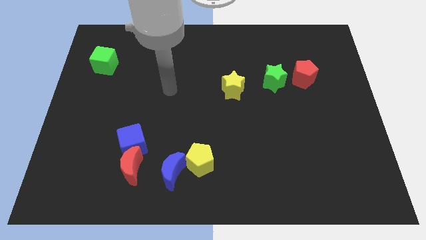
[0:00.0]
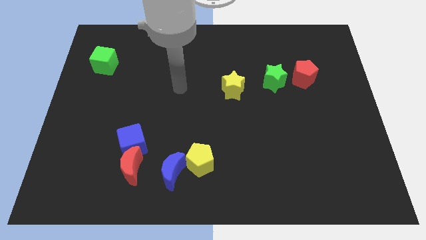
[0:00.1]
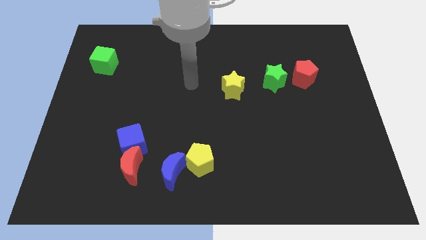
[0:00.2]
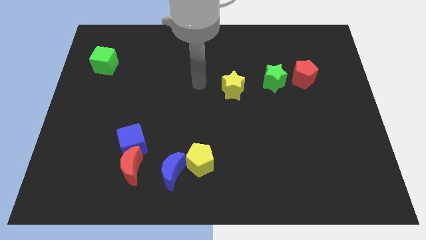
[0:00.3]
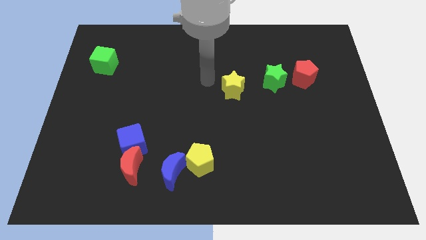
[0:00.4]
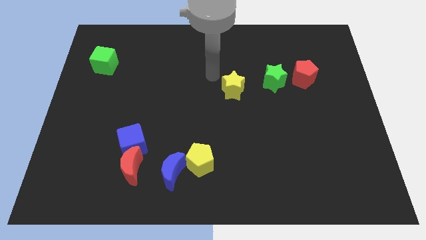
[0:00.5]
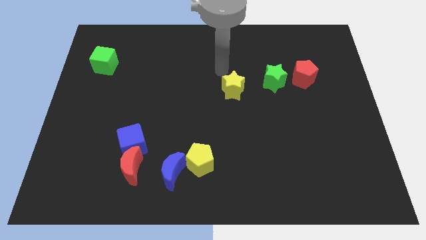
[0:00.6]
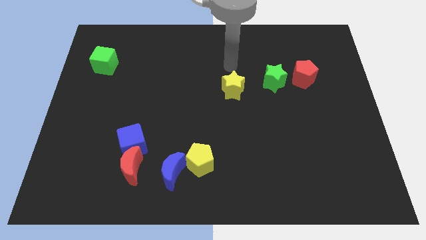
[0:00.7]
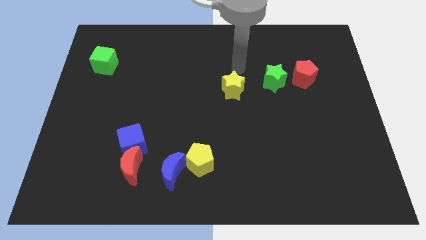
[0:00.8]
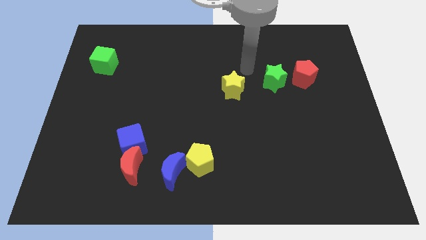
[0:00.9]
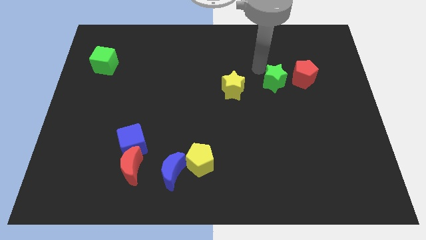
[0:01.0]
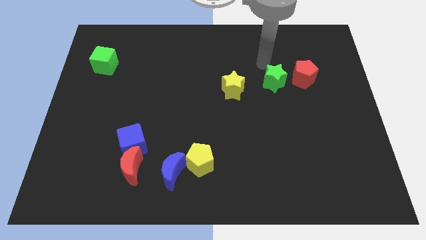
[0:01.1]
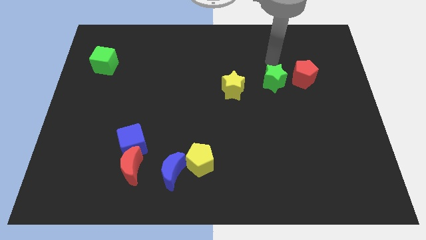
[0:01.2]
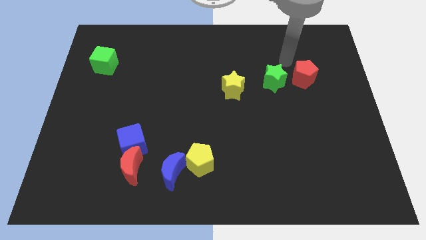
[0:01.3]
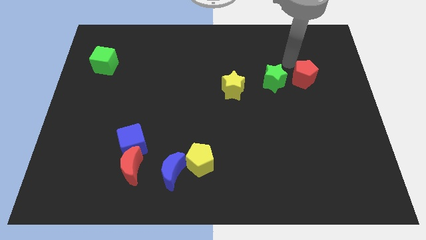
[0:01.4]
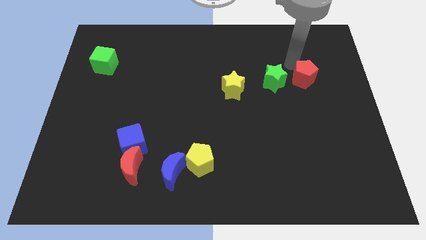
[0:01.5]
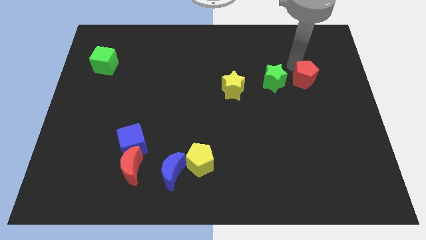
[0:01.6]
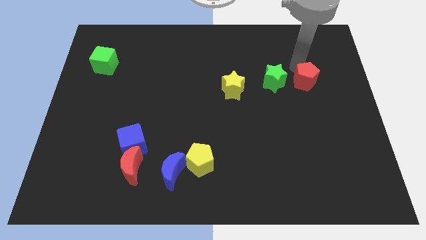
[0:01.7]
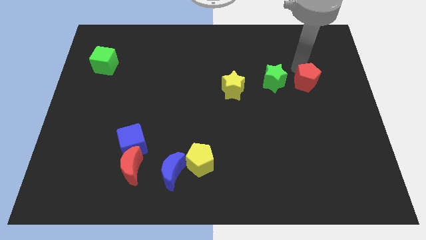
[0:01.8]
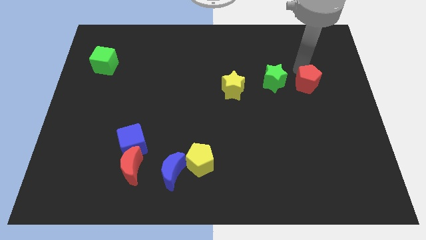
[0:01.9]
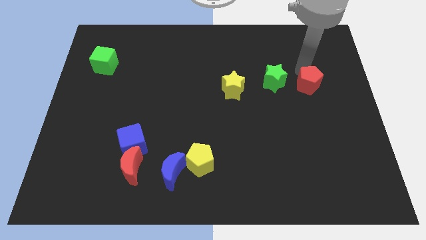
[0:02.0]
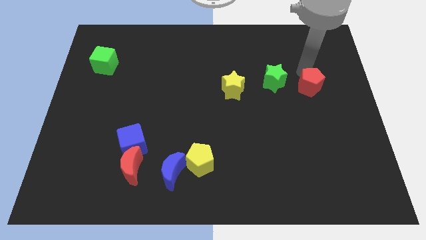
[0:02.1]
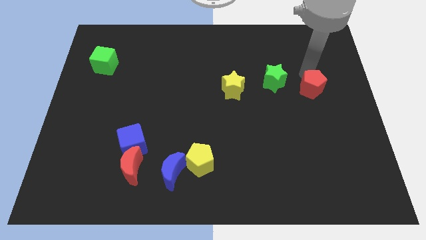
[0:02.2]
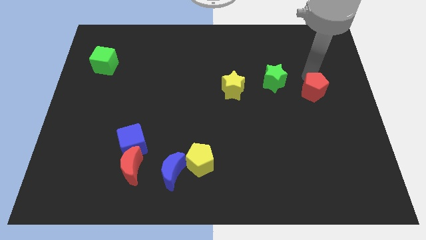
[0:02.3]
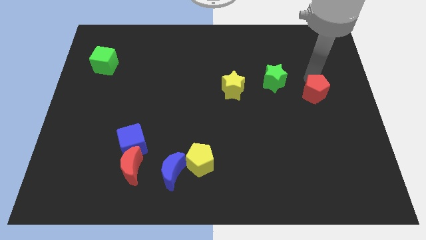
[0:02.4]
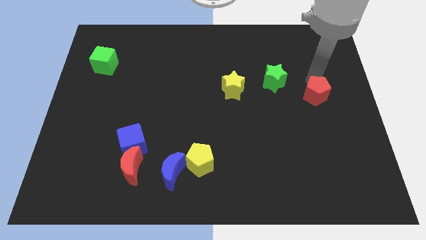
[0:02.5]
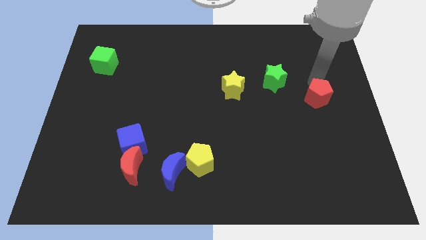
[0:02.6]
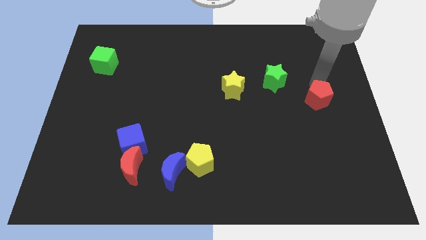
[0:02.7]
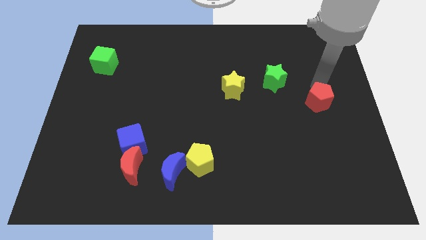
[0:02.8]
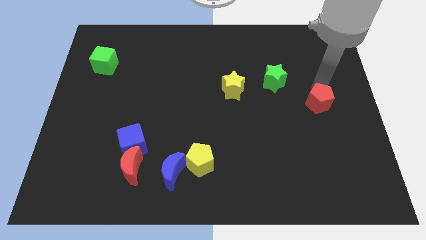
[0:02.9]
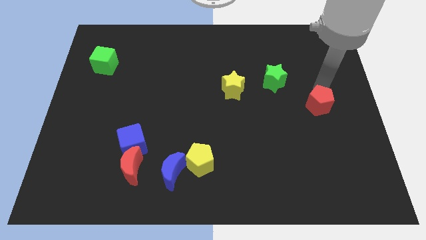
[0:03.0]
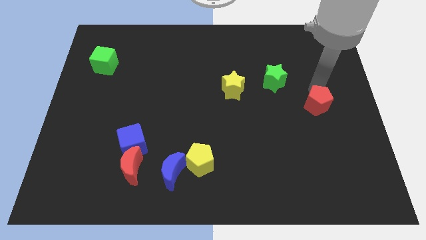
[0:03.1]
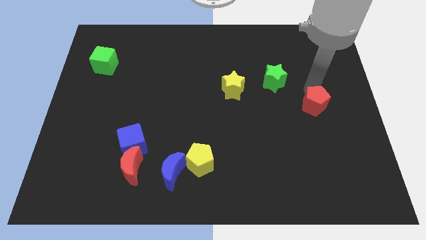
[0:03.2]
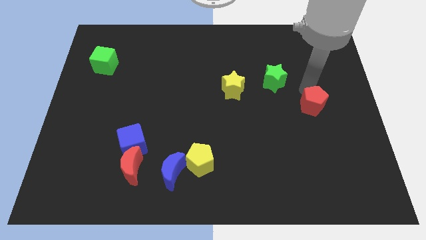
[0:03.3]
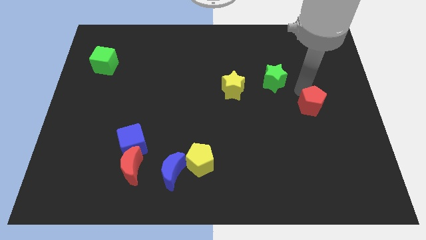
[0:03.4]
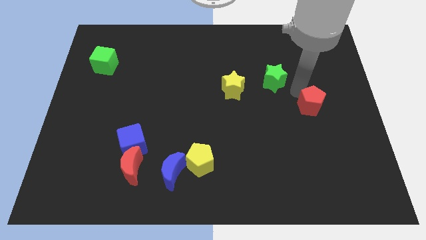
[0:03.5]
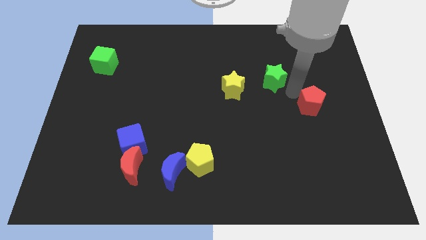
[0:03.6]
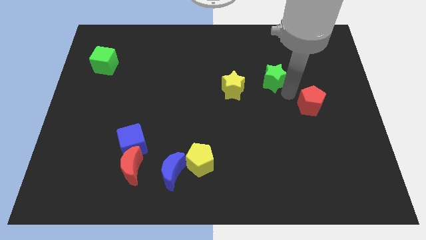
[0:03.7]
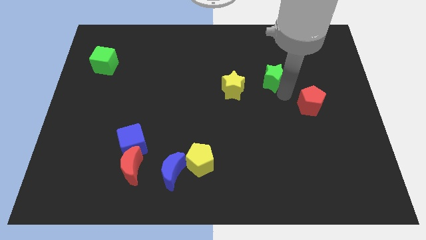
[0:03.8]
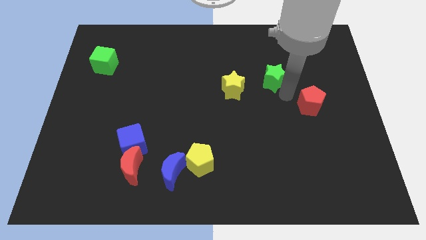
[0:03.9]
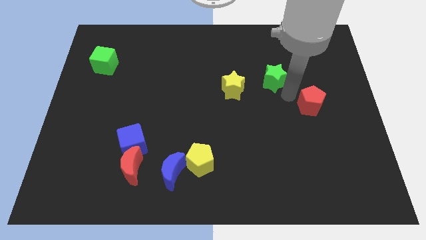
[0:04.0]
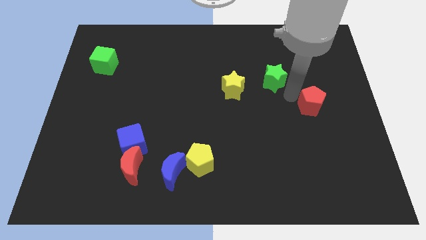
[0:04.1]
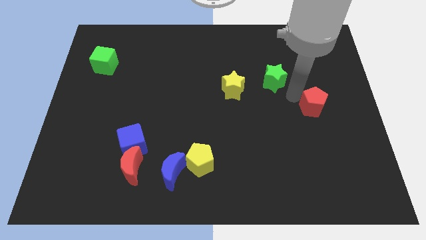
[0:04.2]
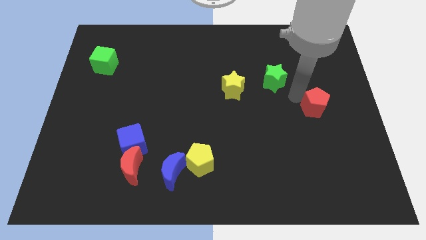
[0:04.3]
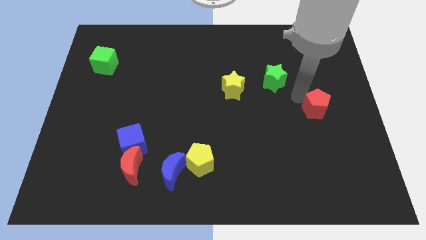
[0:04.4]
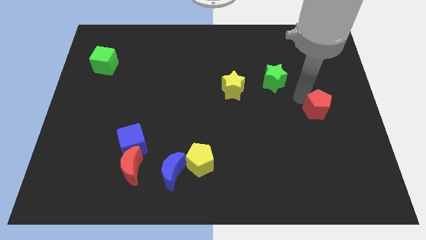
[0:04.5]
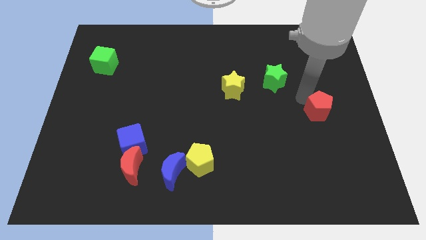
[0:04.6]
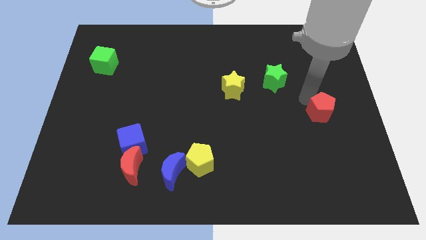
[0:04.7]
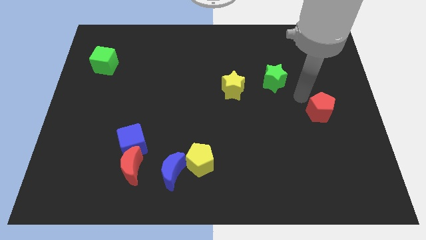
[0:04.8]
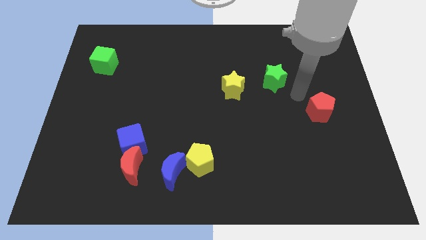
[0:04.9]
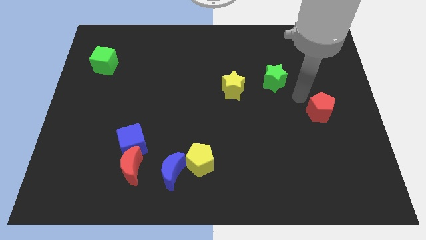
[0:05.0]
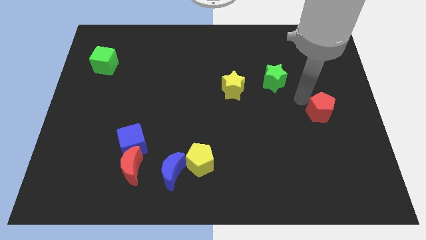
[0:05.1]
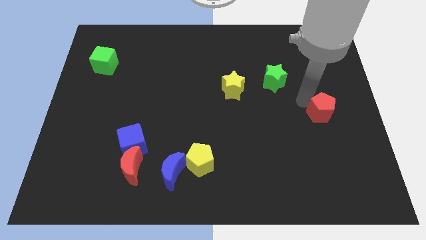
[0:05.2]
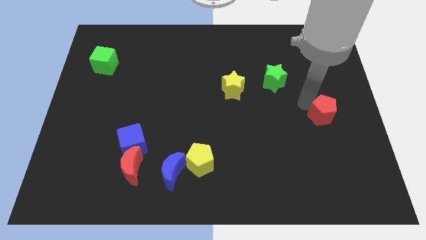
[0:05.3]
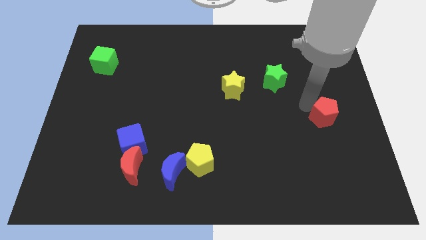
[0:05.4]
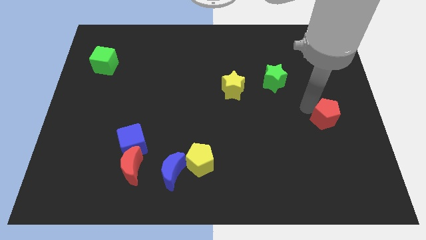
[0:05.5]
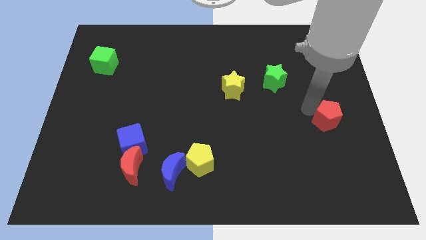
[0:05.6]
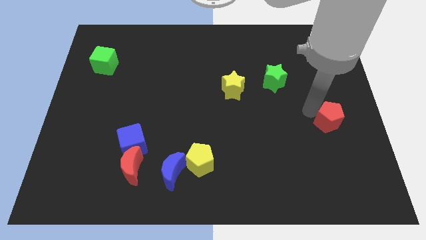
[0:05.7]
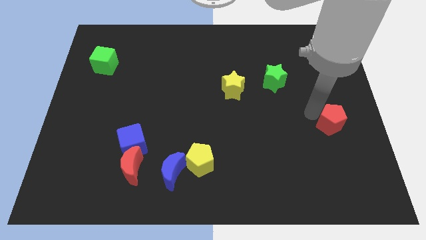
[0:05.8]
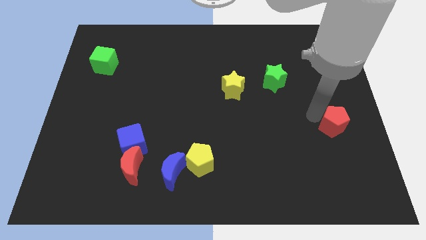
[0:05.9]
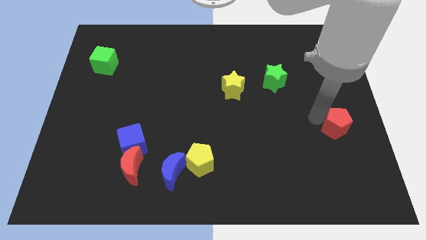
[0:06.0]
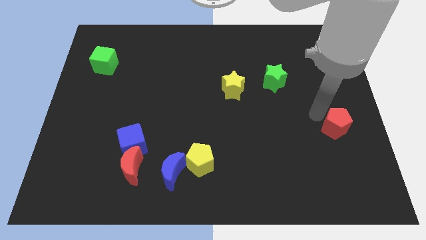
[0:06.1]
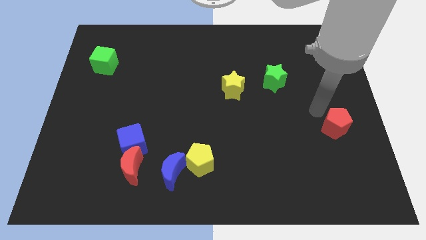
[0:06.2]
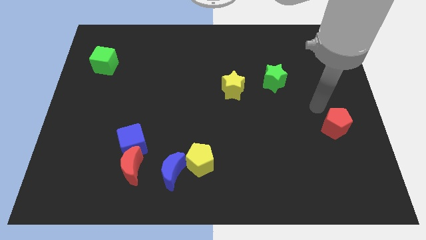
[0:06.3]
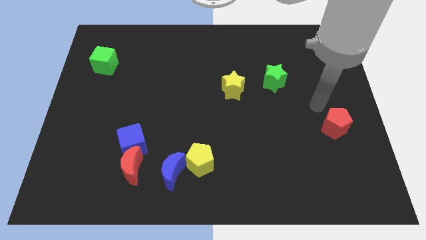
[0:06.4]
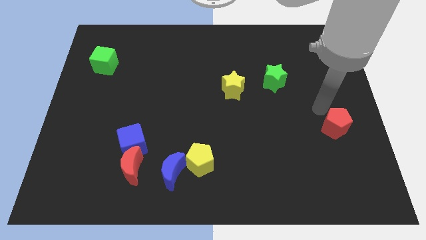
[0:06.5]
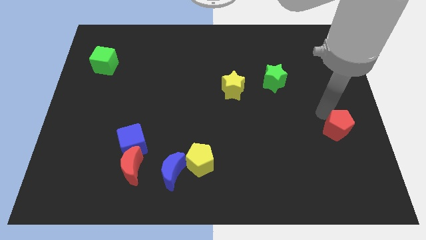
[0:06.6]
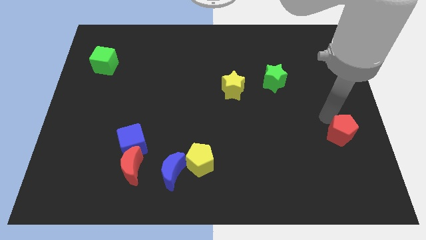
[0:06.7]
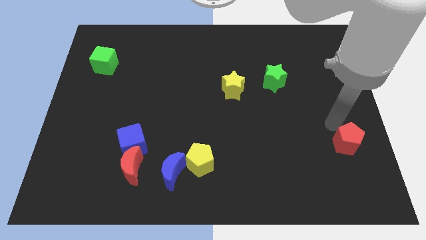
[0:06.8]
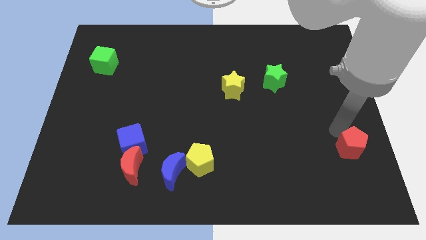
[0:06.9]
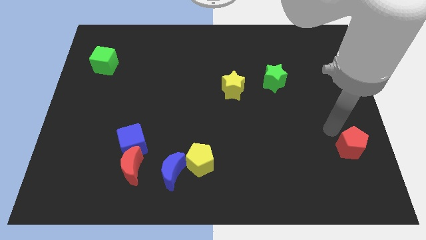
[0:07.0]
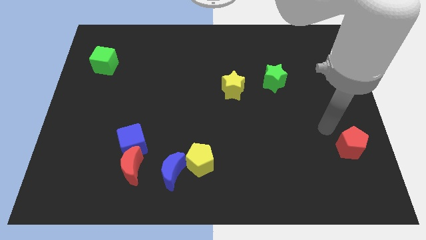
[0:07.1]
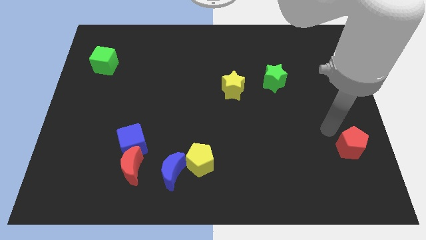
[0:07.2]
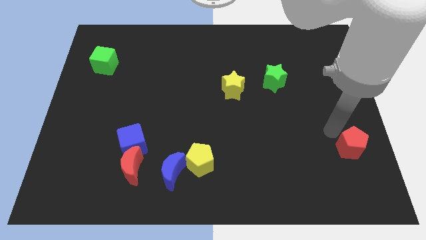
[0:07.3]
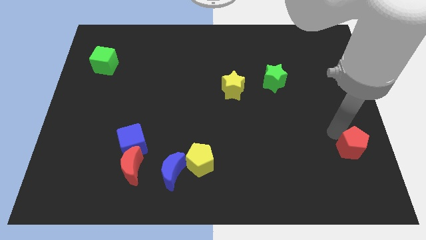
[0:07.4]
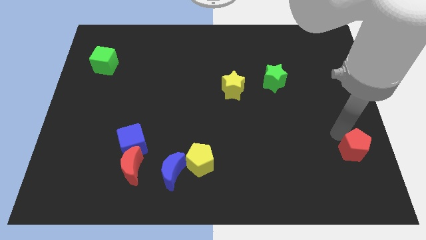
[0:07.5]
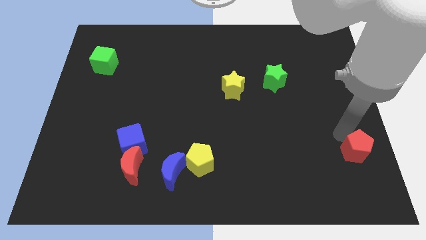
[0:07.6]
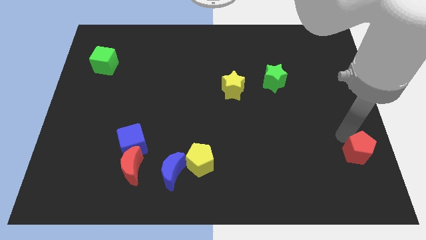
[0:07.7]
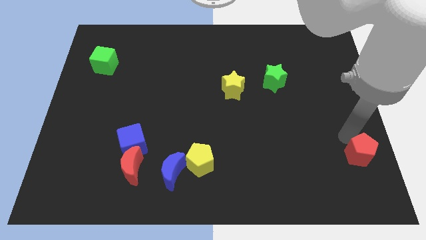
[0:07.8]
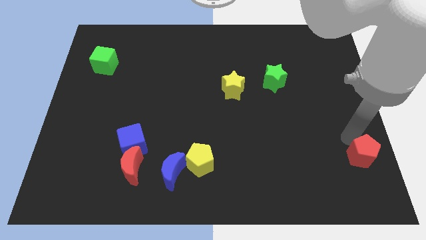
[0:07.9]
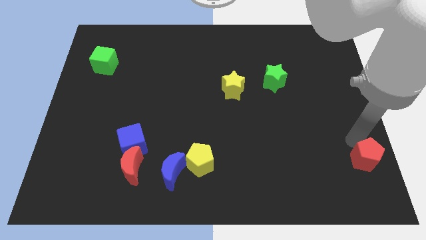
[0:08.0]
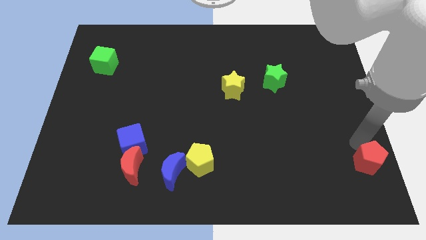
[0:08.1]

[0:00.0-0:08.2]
move the red pentagon to the bottom right
